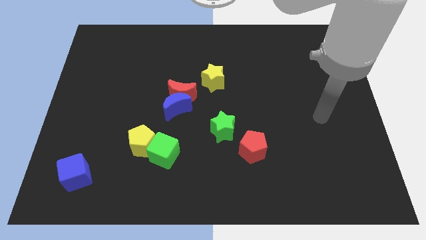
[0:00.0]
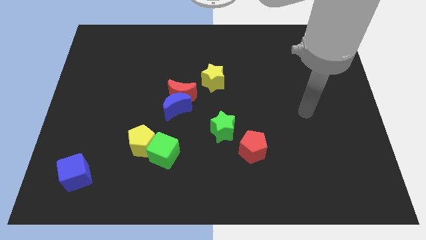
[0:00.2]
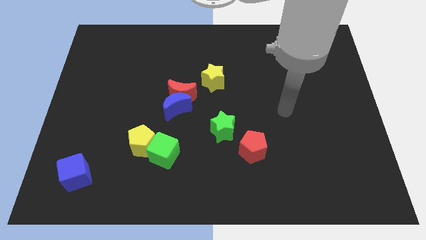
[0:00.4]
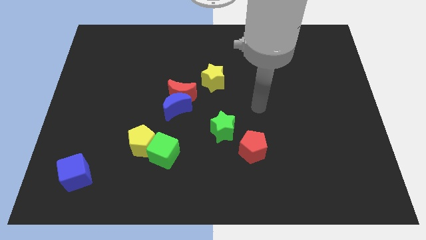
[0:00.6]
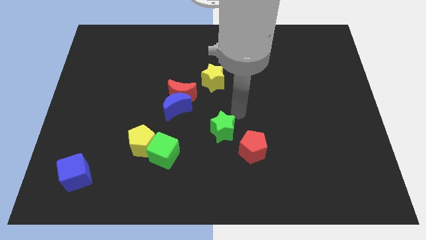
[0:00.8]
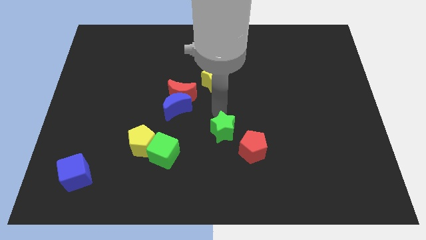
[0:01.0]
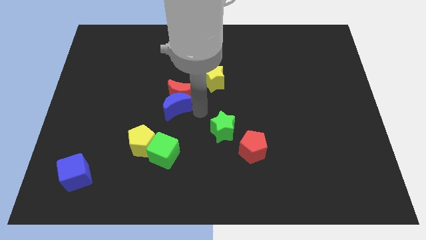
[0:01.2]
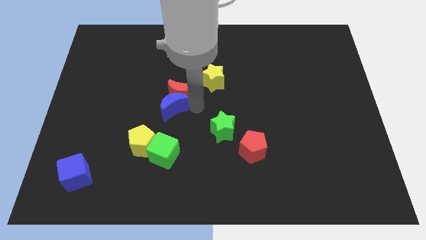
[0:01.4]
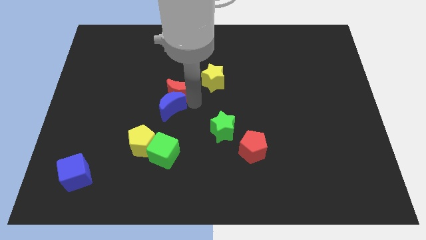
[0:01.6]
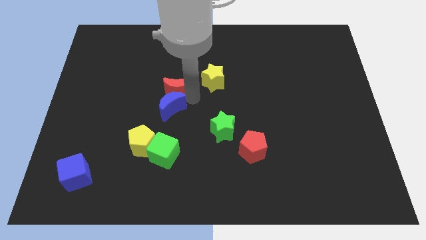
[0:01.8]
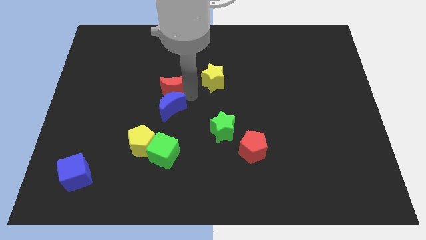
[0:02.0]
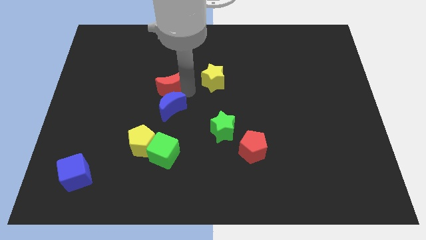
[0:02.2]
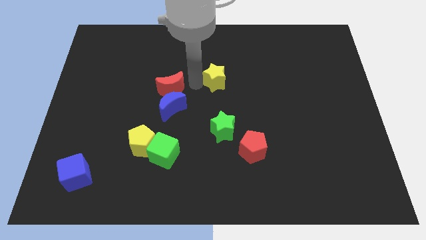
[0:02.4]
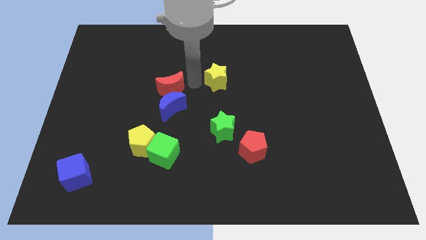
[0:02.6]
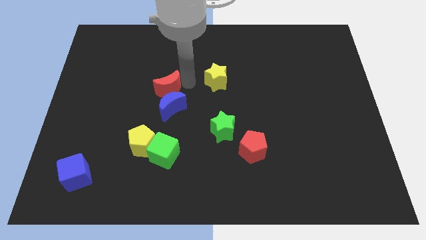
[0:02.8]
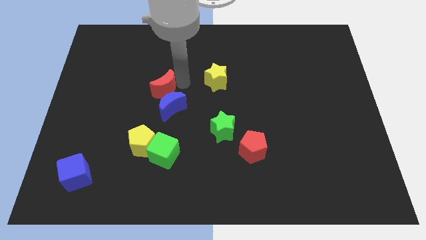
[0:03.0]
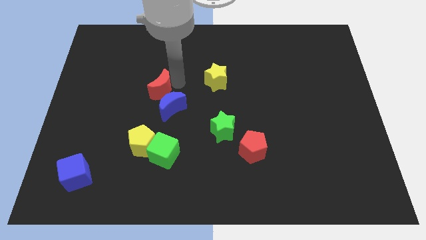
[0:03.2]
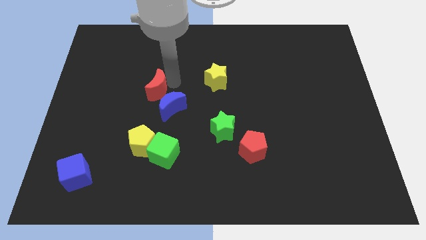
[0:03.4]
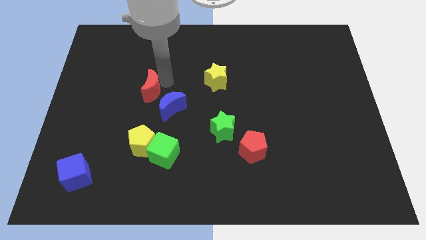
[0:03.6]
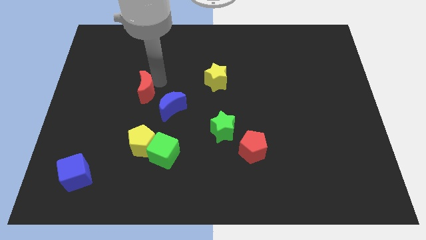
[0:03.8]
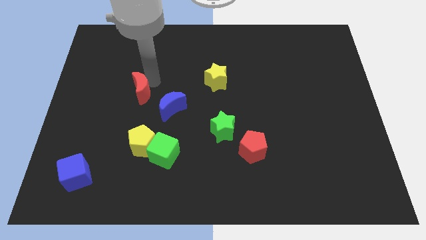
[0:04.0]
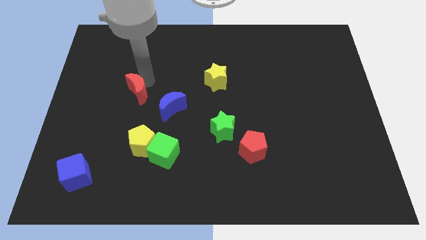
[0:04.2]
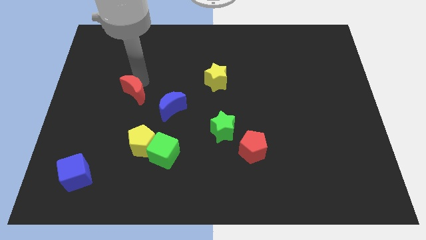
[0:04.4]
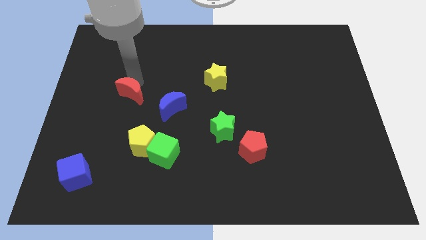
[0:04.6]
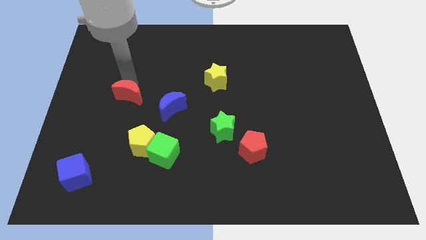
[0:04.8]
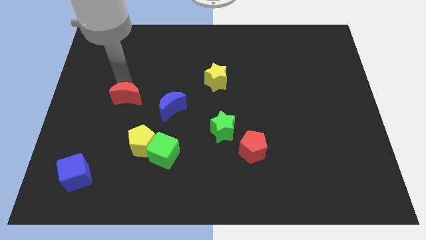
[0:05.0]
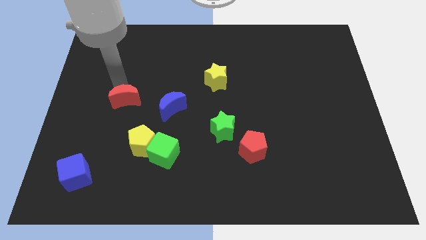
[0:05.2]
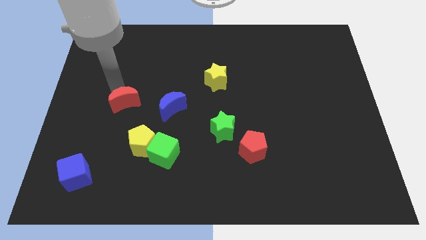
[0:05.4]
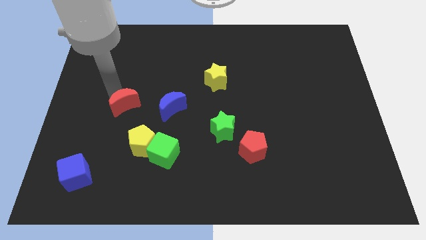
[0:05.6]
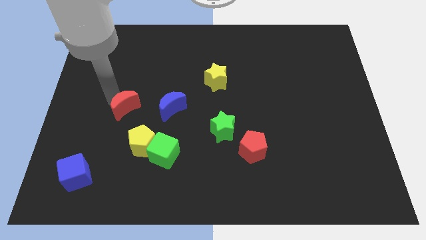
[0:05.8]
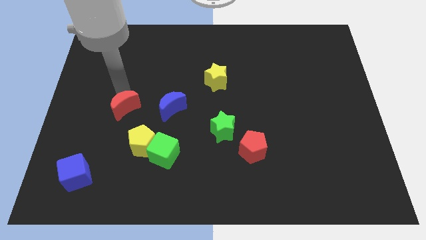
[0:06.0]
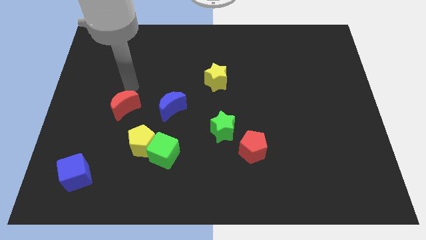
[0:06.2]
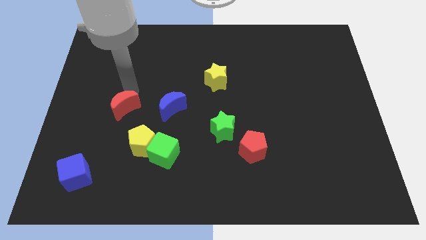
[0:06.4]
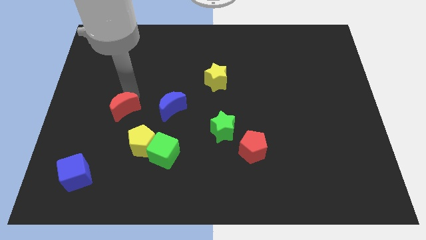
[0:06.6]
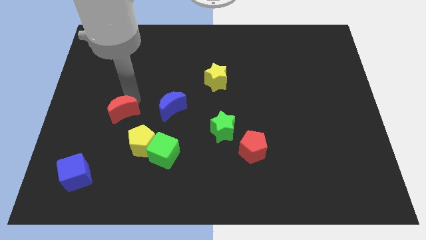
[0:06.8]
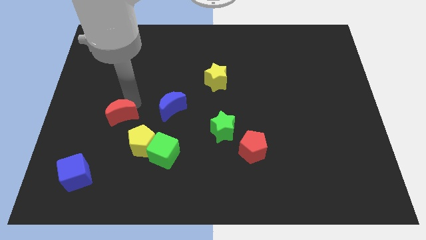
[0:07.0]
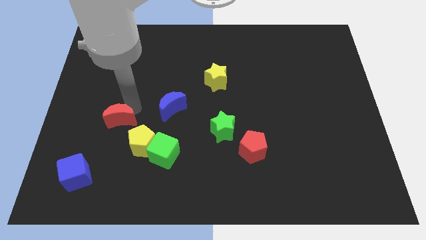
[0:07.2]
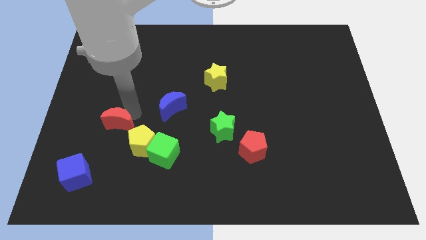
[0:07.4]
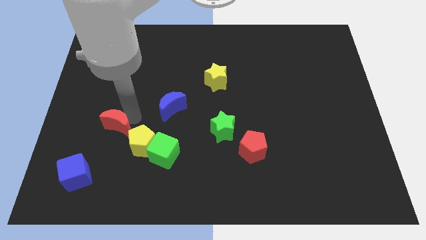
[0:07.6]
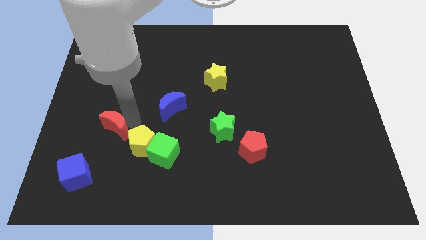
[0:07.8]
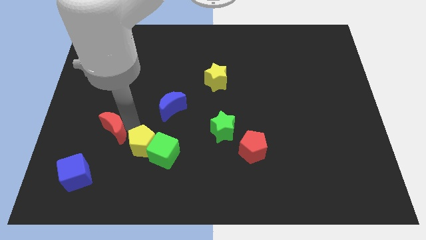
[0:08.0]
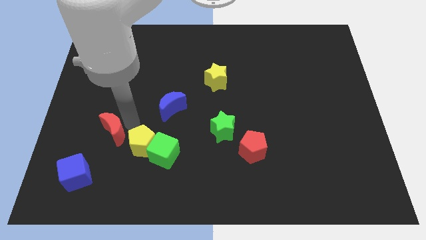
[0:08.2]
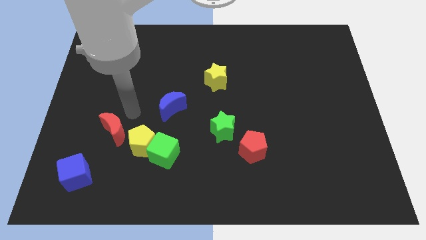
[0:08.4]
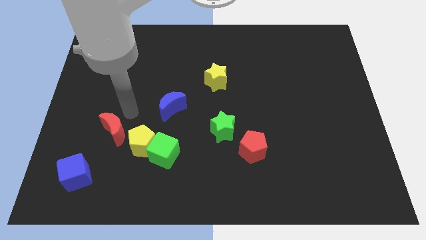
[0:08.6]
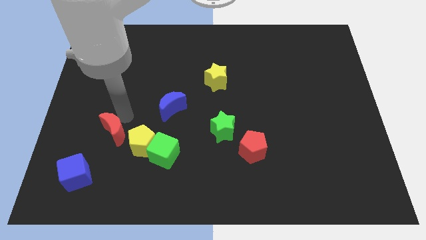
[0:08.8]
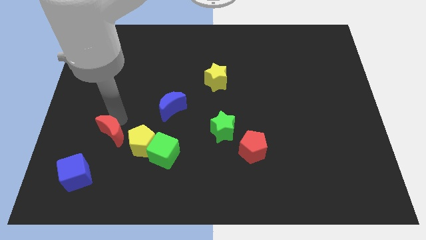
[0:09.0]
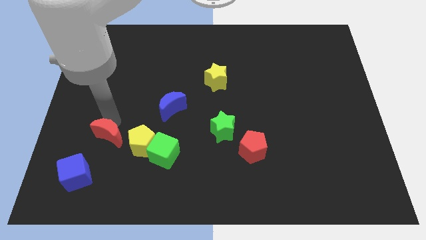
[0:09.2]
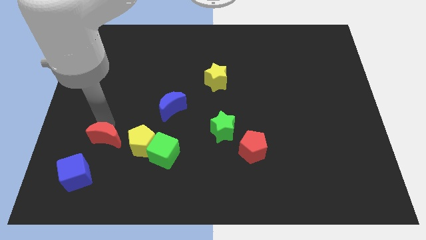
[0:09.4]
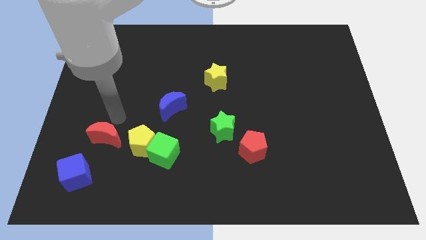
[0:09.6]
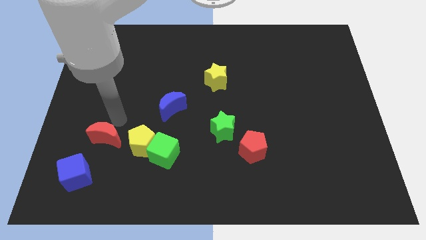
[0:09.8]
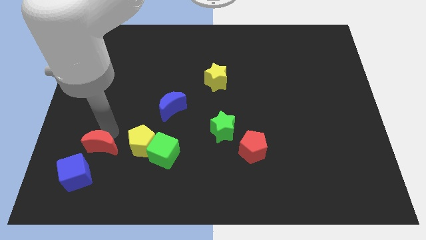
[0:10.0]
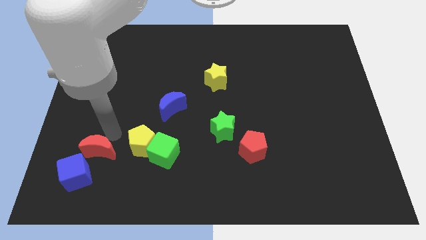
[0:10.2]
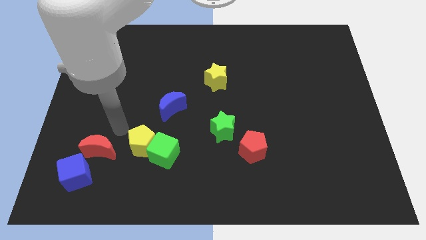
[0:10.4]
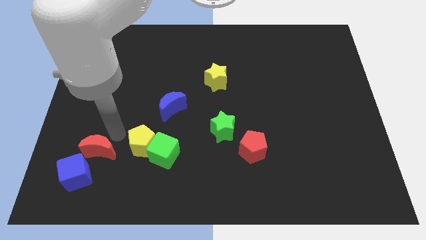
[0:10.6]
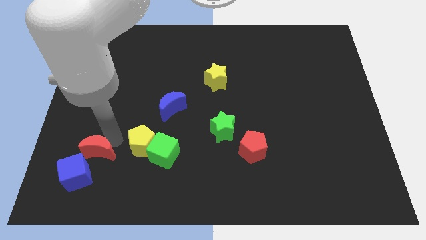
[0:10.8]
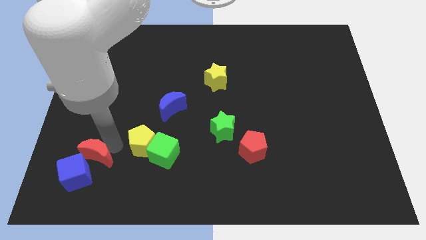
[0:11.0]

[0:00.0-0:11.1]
put the red moon close to the blue cube

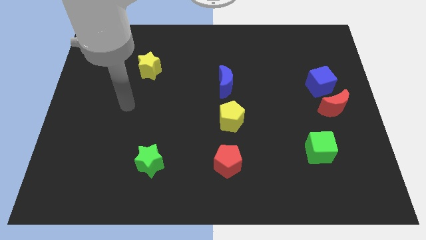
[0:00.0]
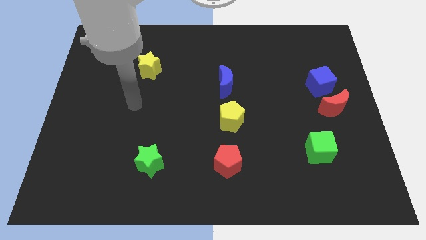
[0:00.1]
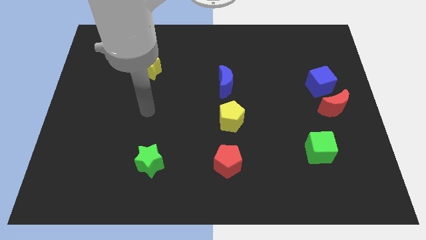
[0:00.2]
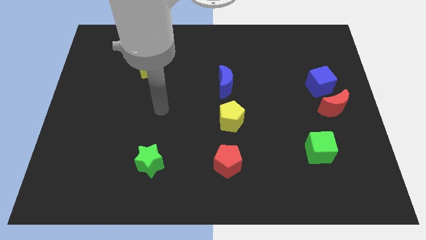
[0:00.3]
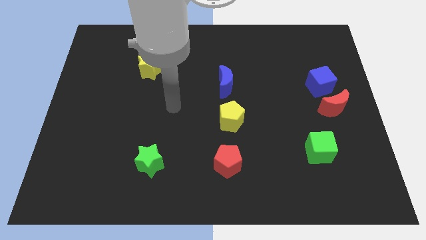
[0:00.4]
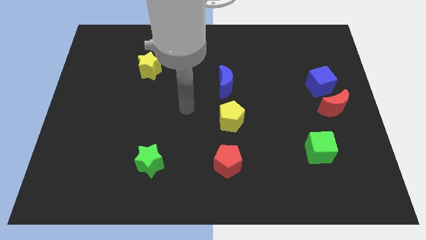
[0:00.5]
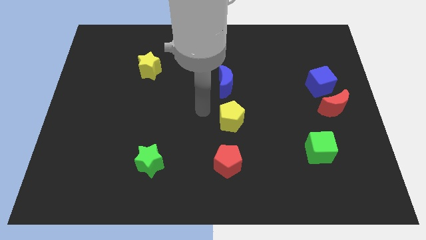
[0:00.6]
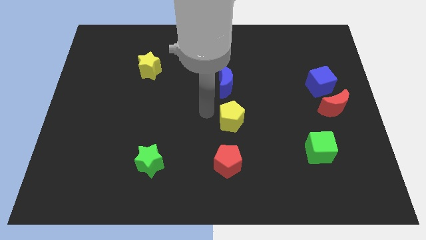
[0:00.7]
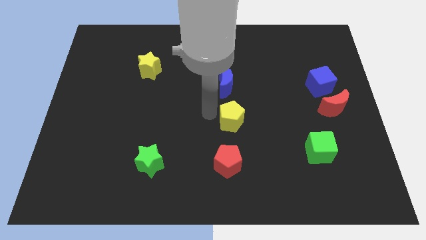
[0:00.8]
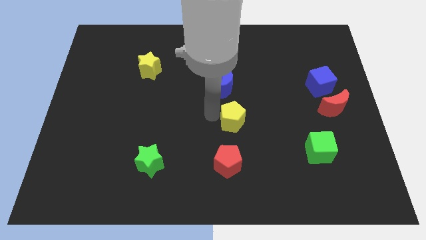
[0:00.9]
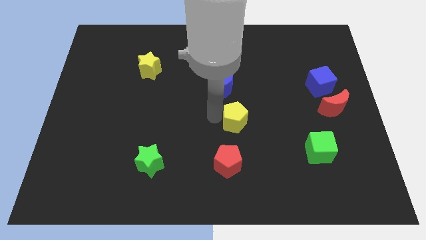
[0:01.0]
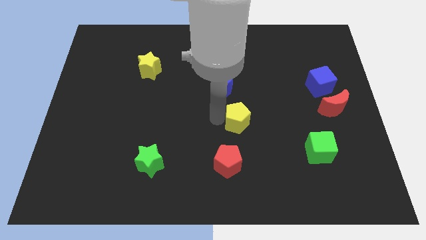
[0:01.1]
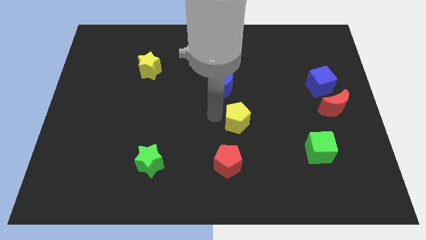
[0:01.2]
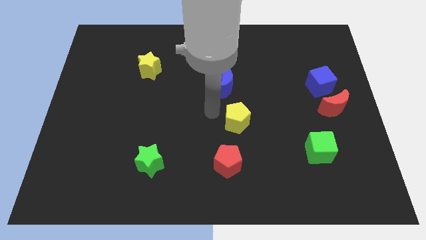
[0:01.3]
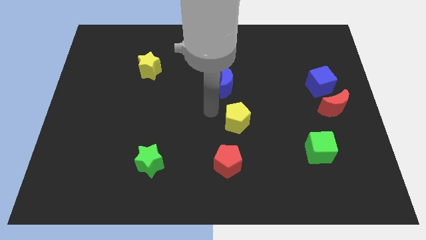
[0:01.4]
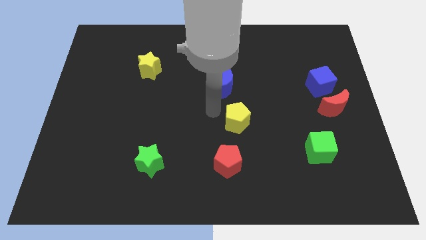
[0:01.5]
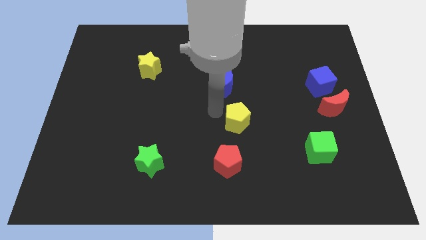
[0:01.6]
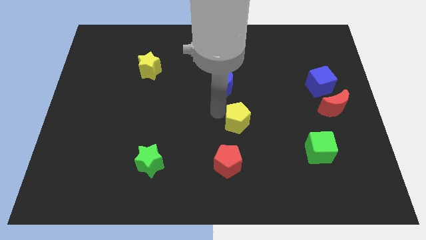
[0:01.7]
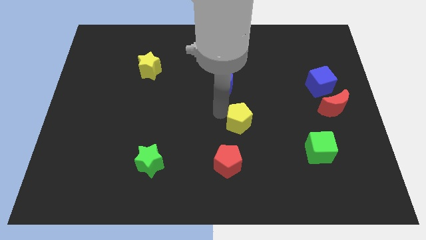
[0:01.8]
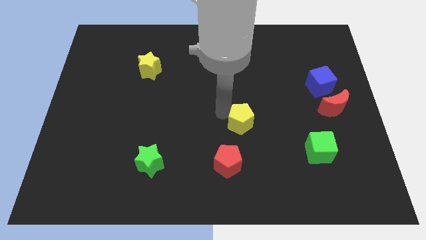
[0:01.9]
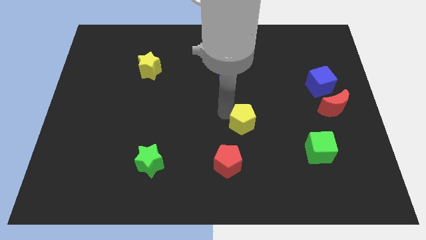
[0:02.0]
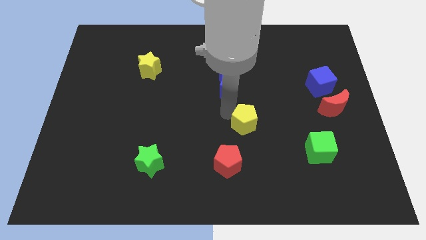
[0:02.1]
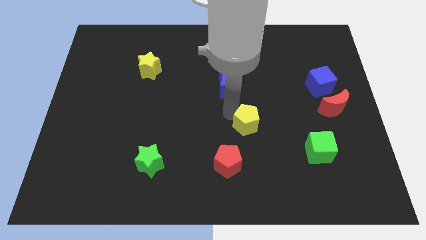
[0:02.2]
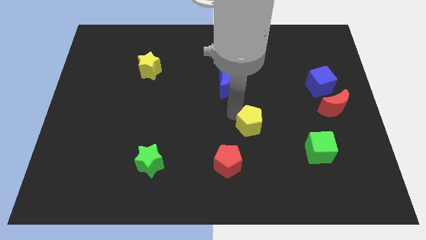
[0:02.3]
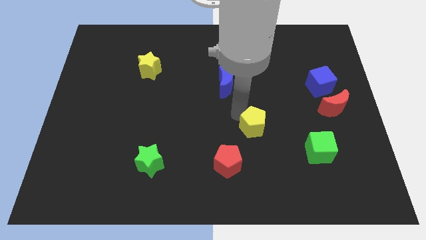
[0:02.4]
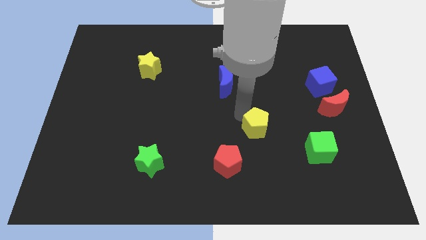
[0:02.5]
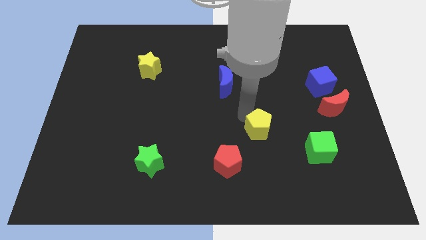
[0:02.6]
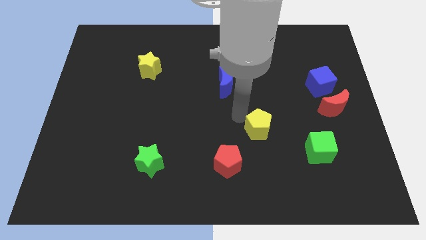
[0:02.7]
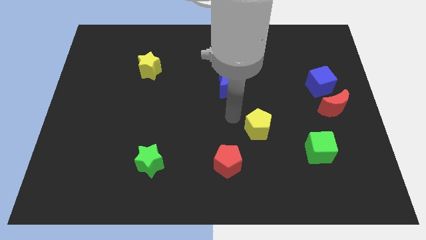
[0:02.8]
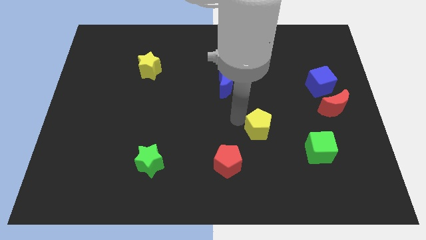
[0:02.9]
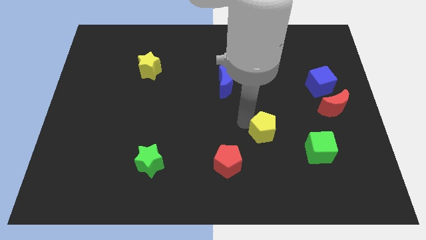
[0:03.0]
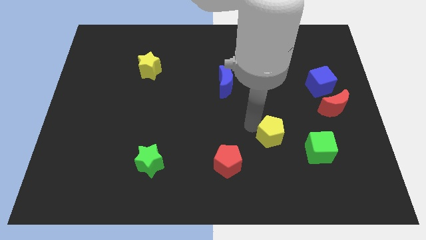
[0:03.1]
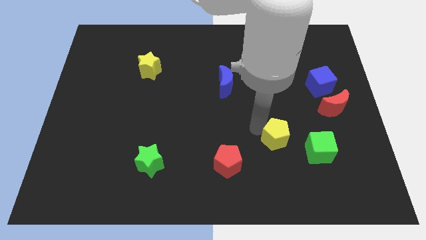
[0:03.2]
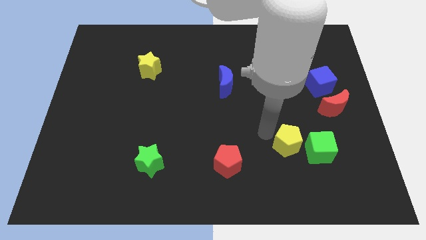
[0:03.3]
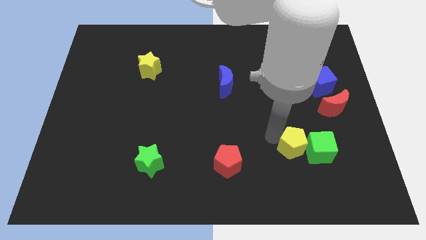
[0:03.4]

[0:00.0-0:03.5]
move the yellow pentagon towards the green cube
